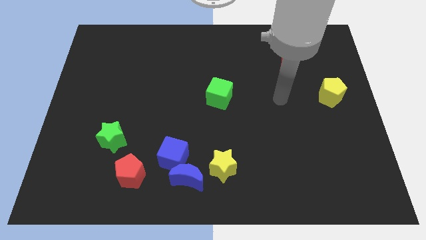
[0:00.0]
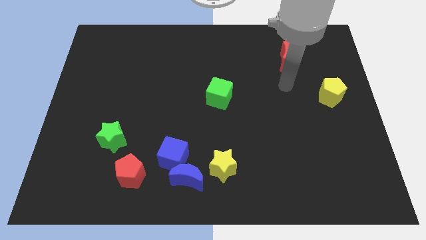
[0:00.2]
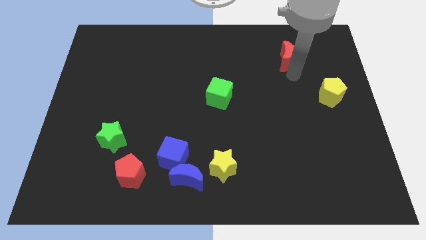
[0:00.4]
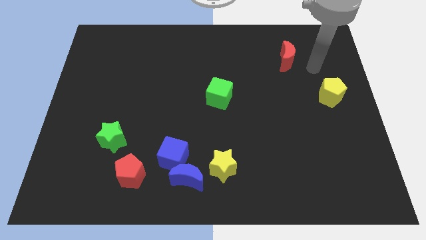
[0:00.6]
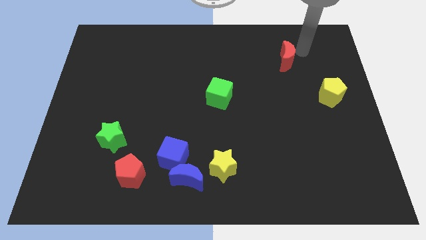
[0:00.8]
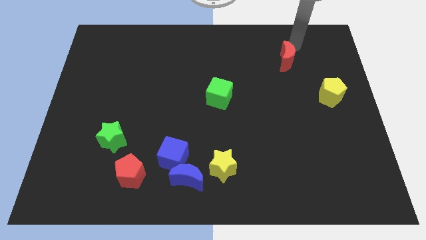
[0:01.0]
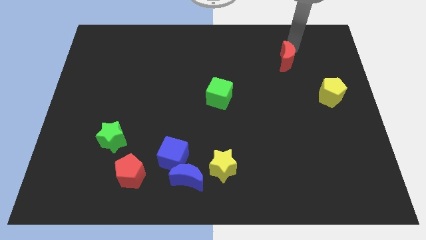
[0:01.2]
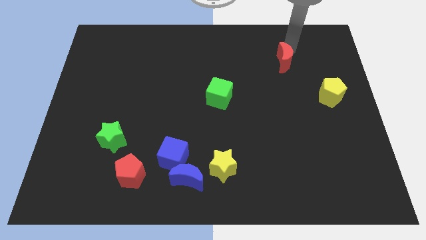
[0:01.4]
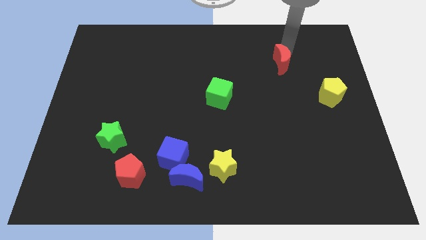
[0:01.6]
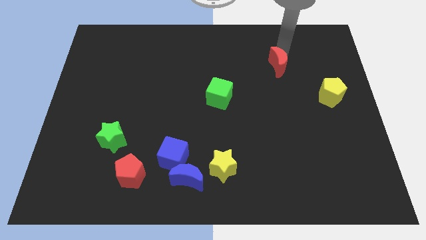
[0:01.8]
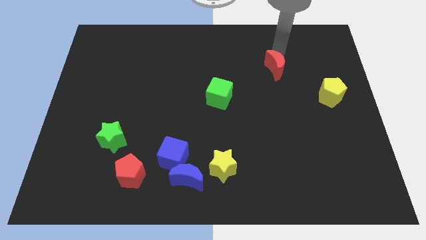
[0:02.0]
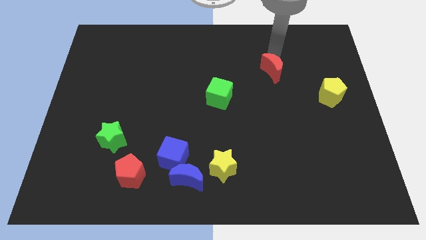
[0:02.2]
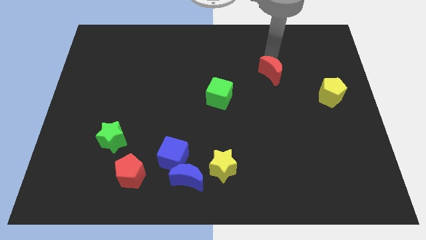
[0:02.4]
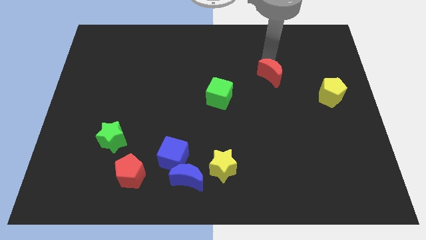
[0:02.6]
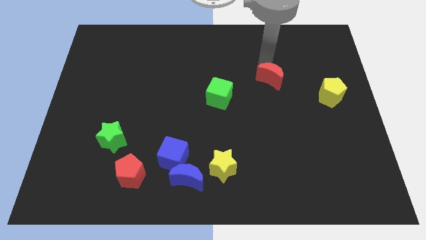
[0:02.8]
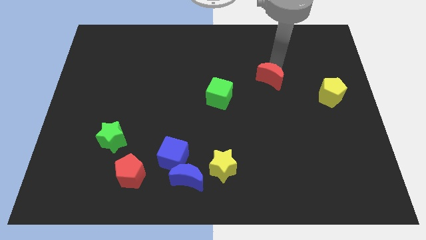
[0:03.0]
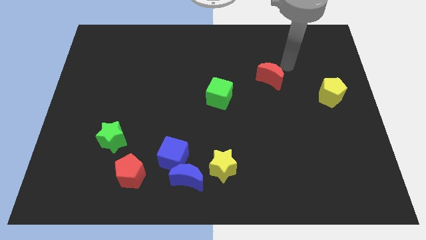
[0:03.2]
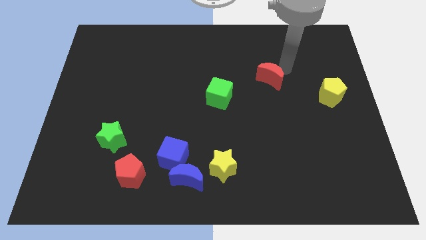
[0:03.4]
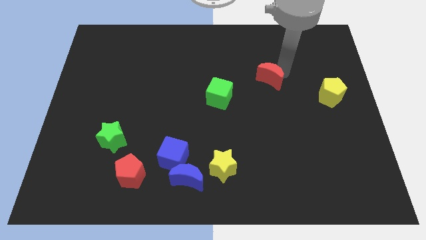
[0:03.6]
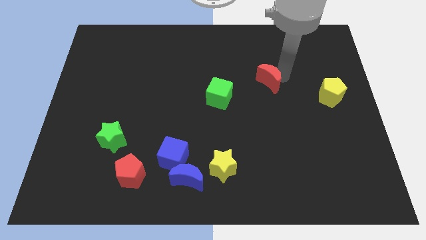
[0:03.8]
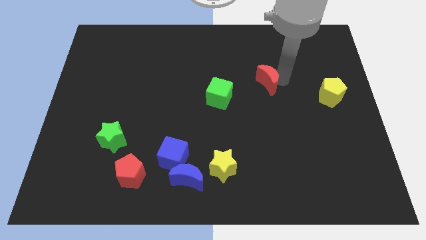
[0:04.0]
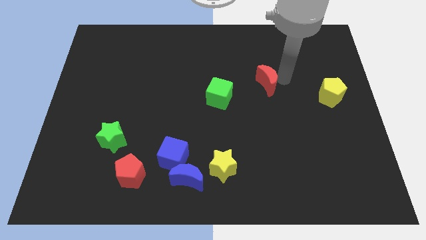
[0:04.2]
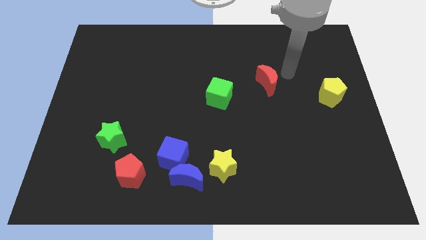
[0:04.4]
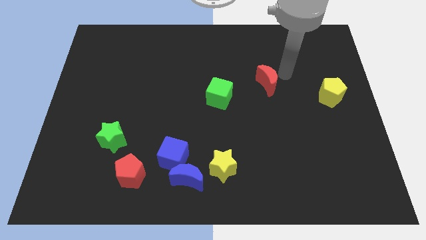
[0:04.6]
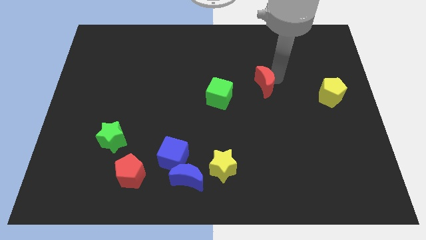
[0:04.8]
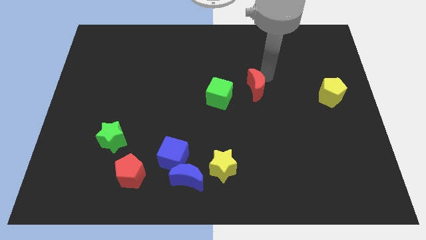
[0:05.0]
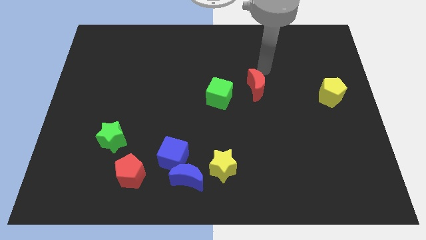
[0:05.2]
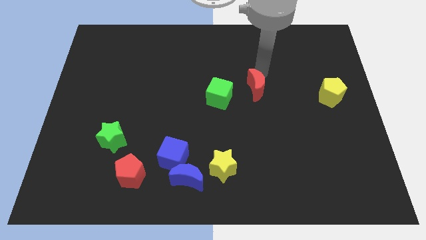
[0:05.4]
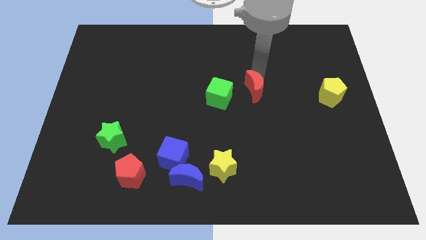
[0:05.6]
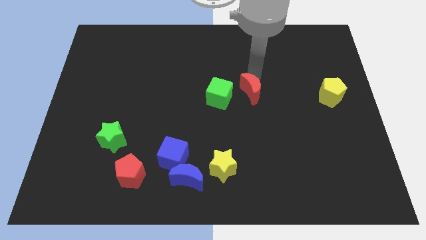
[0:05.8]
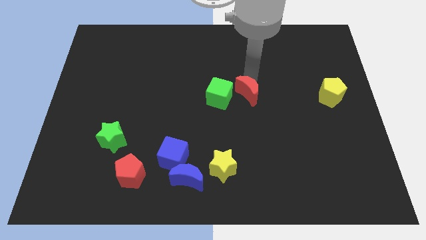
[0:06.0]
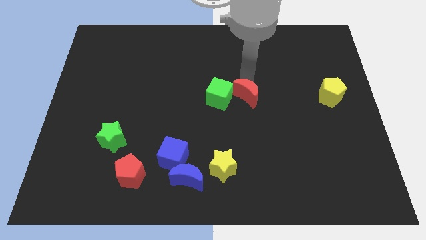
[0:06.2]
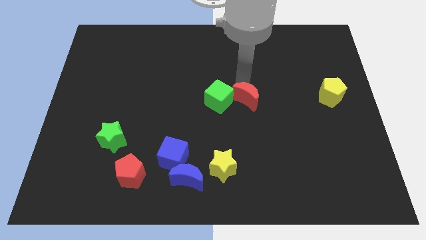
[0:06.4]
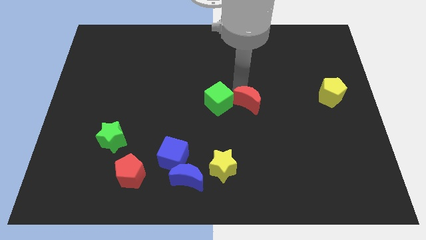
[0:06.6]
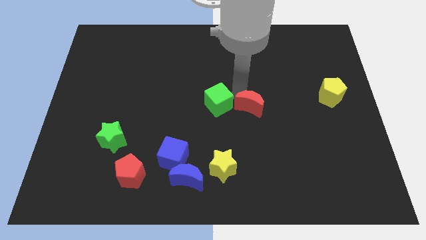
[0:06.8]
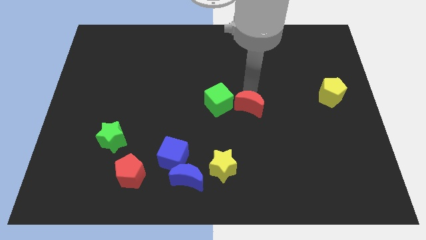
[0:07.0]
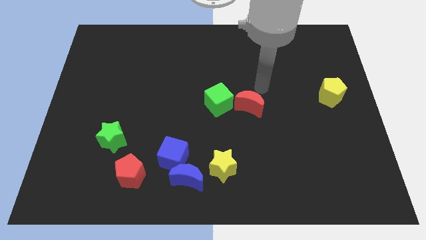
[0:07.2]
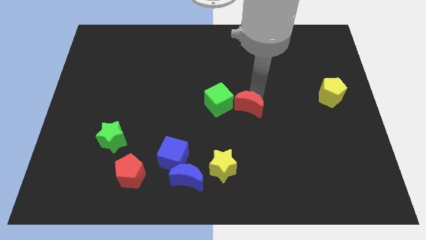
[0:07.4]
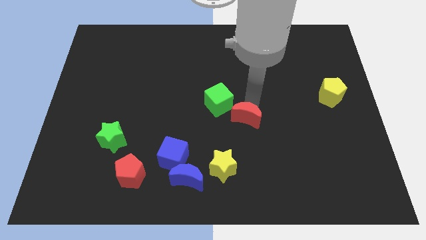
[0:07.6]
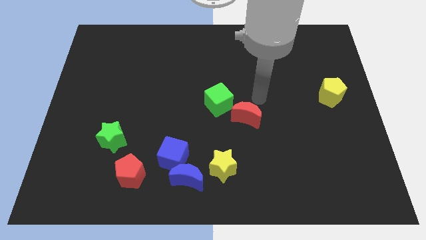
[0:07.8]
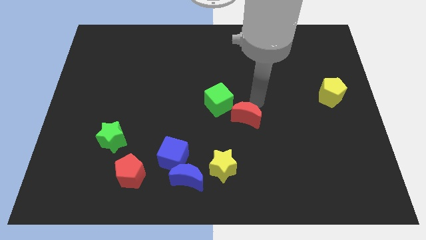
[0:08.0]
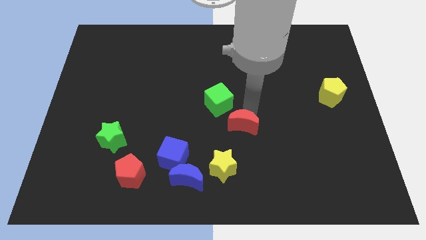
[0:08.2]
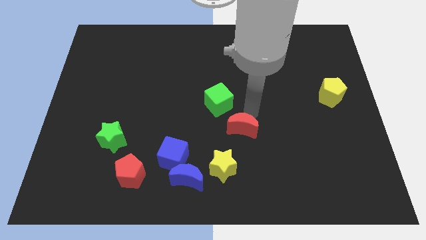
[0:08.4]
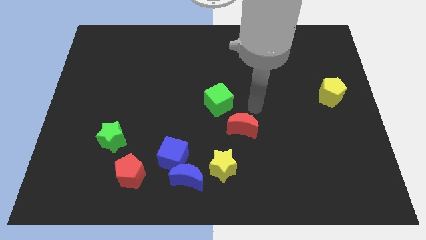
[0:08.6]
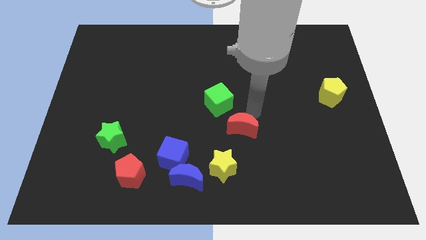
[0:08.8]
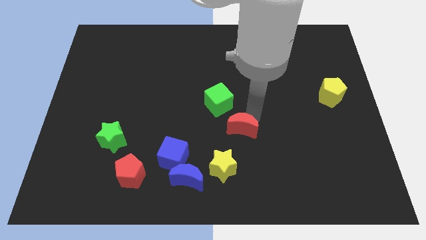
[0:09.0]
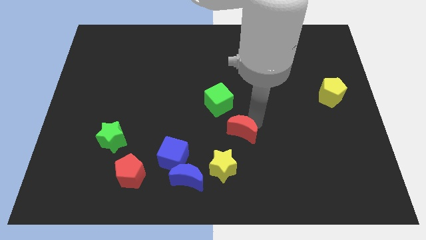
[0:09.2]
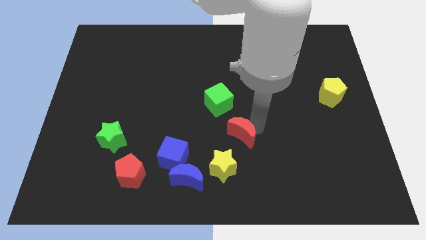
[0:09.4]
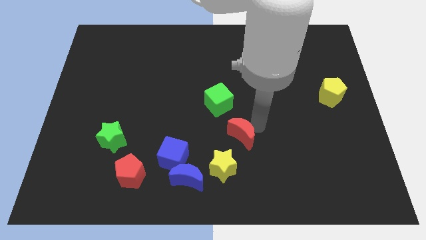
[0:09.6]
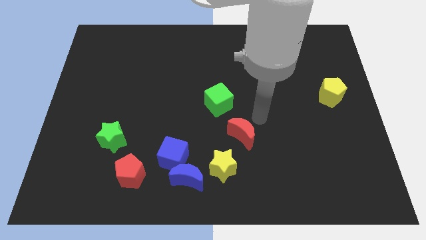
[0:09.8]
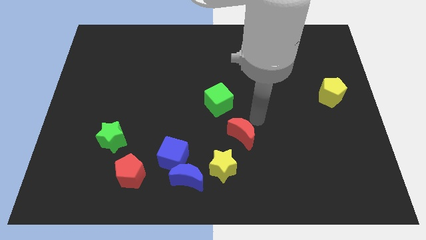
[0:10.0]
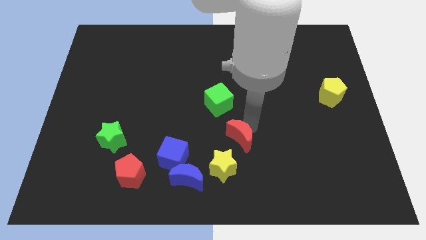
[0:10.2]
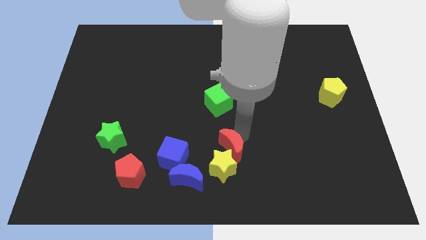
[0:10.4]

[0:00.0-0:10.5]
move the red moon to the yellow star

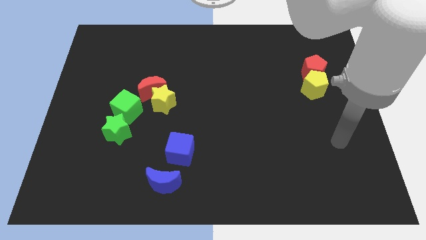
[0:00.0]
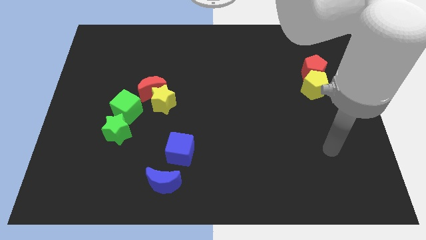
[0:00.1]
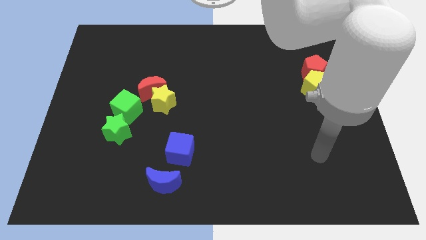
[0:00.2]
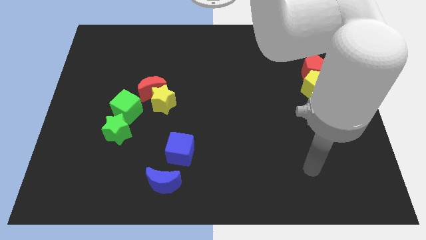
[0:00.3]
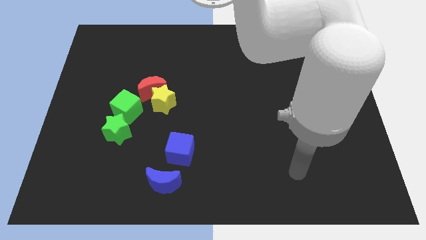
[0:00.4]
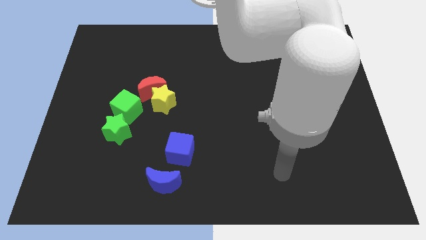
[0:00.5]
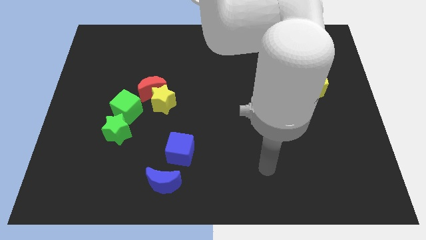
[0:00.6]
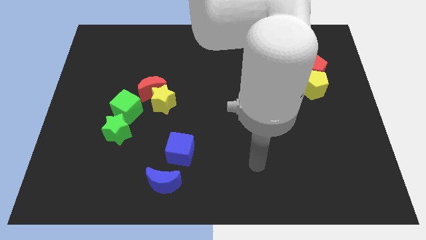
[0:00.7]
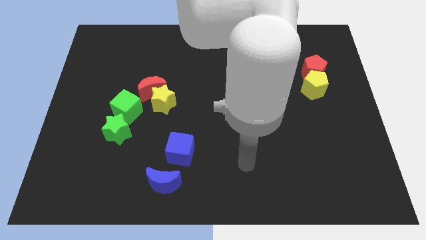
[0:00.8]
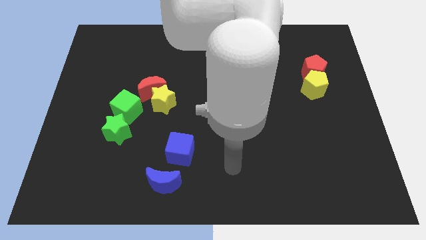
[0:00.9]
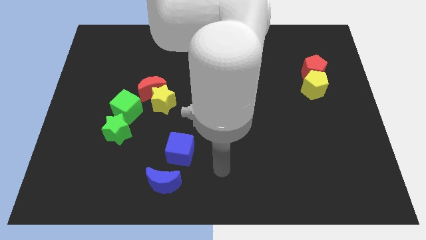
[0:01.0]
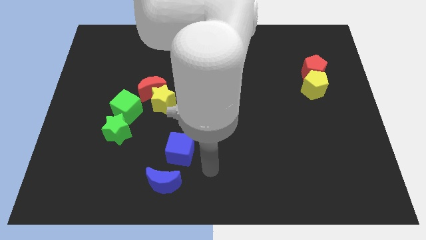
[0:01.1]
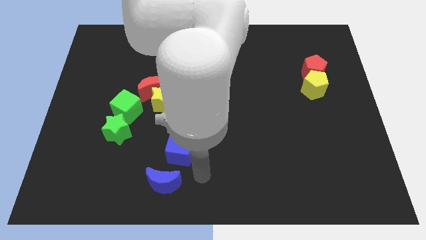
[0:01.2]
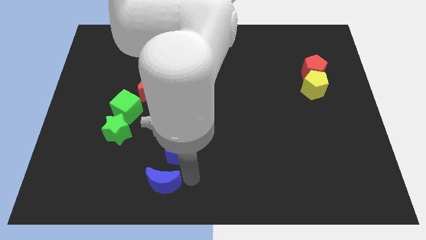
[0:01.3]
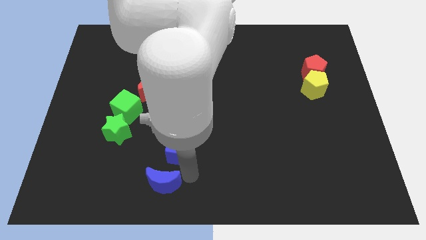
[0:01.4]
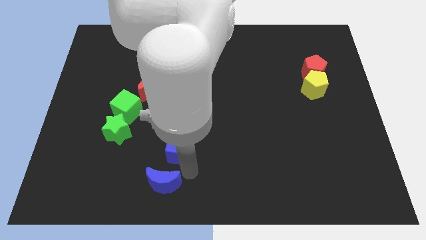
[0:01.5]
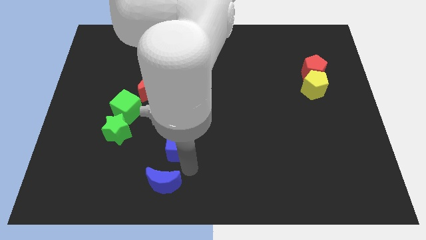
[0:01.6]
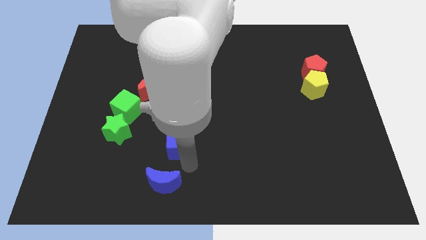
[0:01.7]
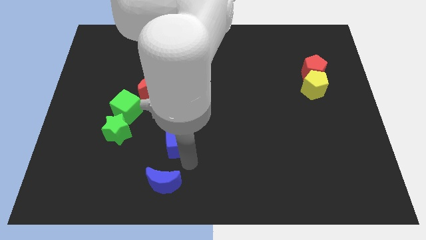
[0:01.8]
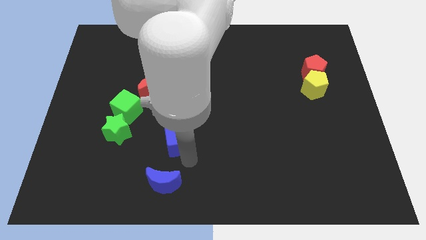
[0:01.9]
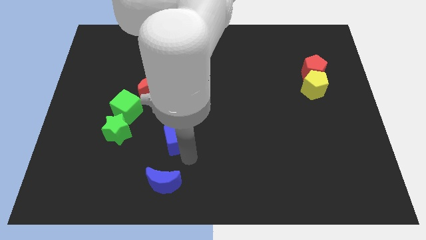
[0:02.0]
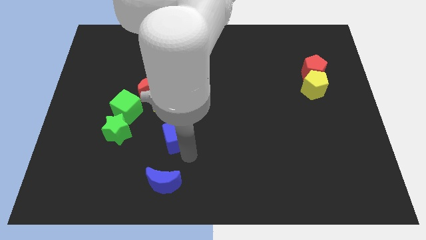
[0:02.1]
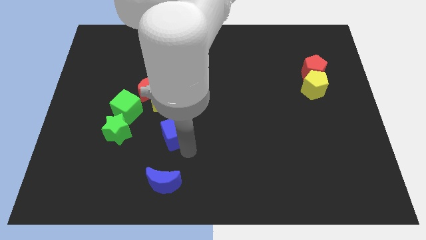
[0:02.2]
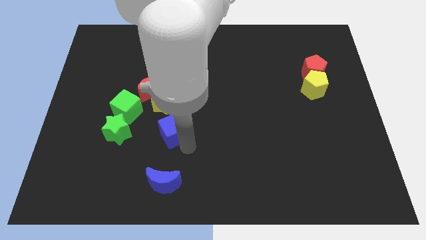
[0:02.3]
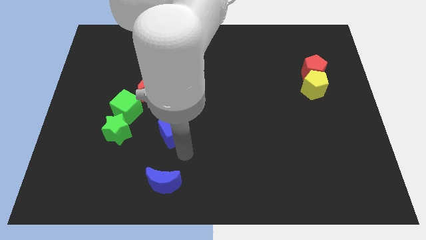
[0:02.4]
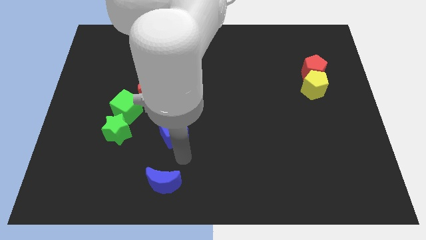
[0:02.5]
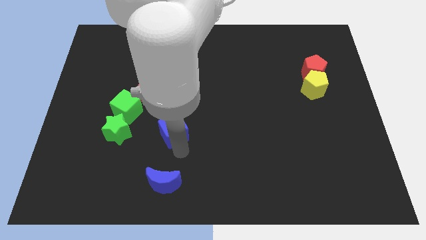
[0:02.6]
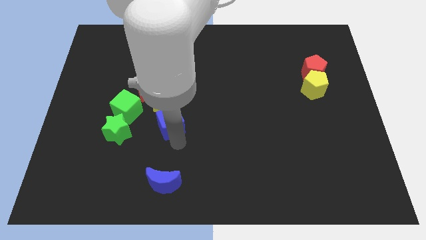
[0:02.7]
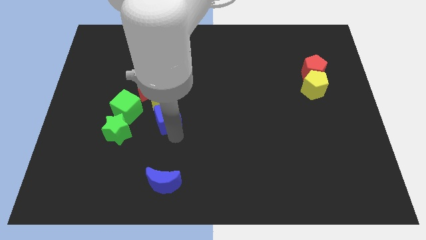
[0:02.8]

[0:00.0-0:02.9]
move the blue cube to the yellow star
